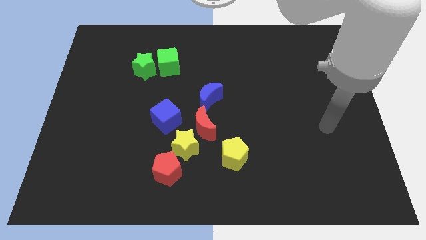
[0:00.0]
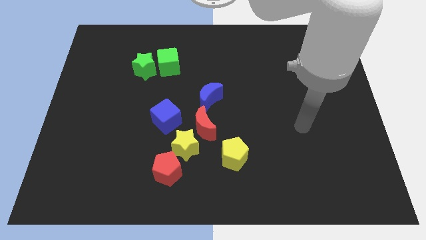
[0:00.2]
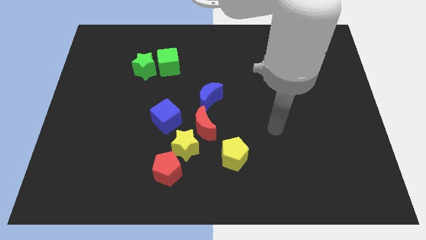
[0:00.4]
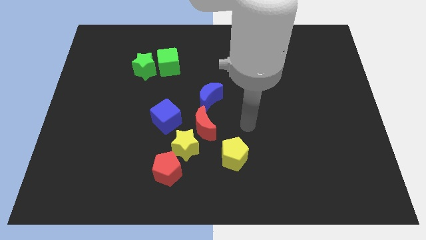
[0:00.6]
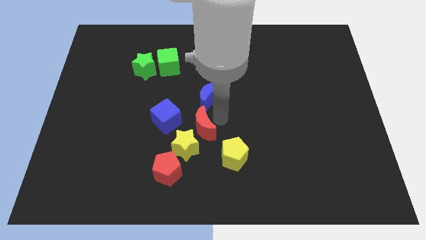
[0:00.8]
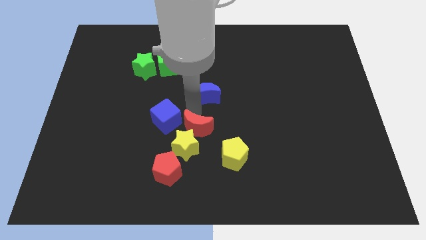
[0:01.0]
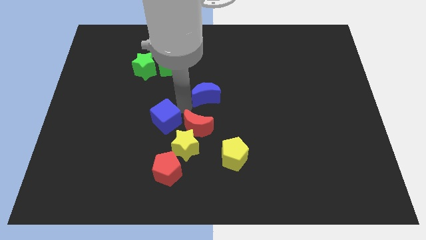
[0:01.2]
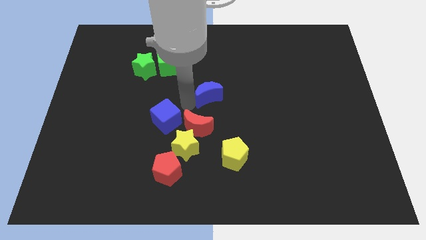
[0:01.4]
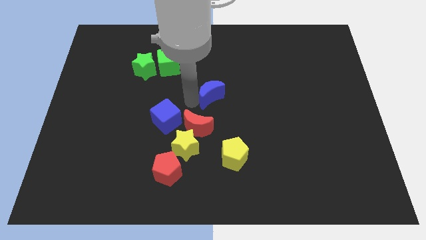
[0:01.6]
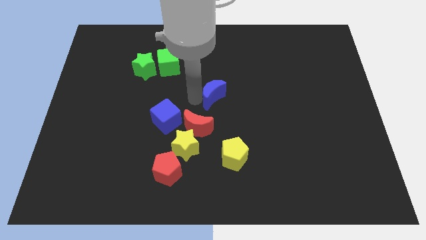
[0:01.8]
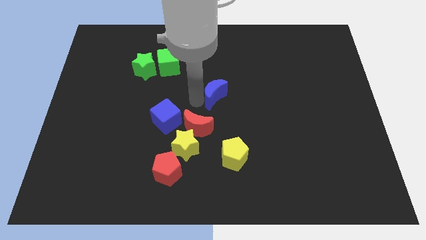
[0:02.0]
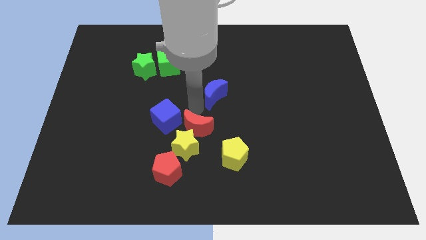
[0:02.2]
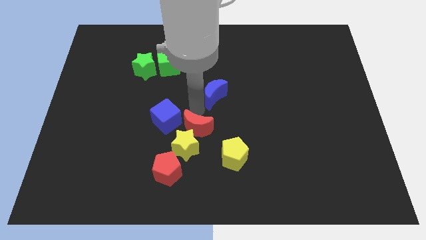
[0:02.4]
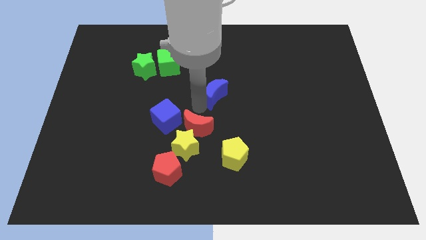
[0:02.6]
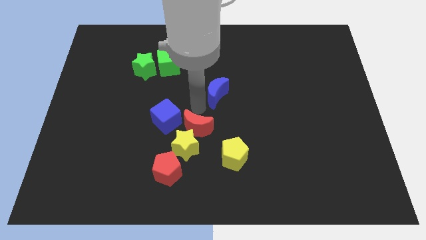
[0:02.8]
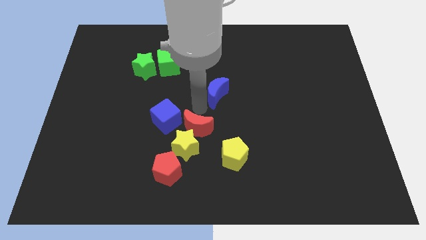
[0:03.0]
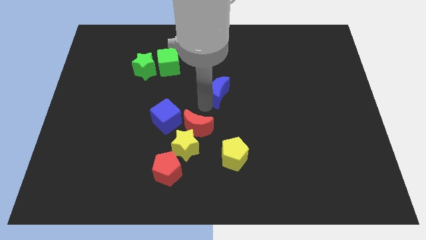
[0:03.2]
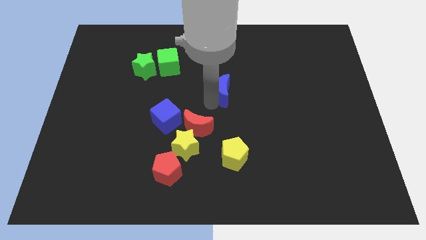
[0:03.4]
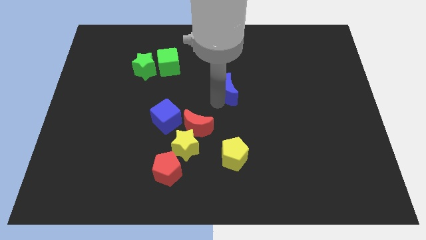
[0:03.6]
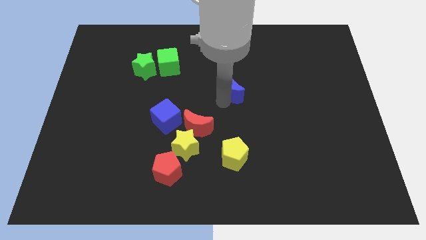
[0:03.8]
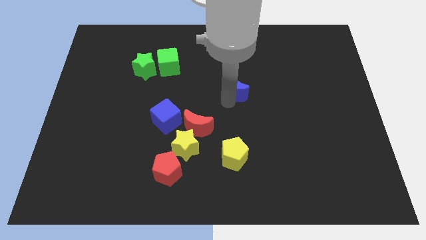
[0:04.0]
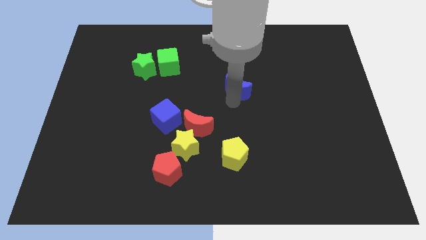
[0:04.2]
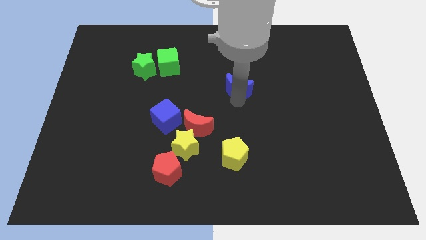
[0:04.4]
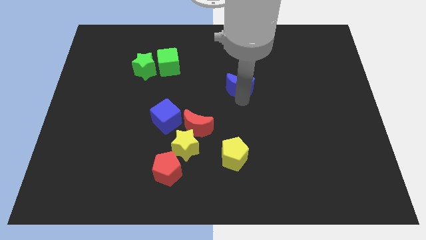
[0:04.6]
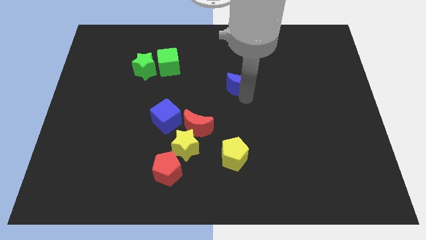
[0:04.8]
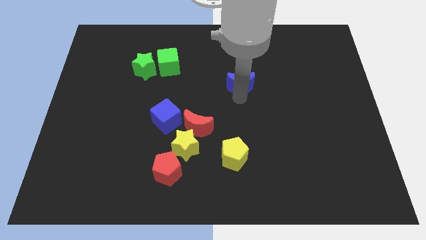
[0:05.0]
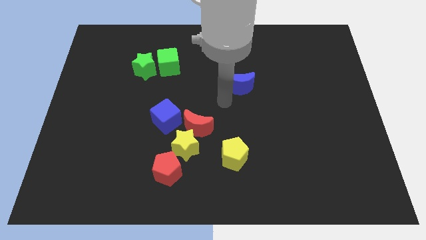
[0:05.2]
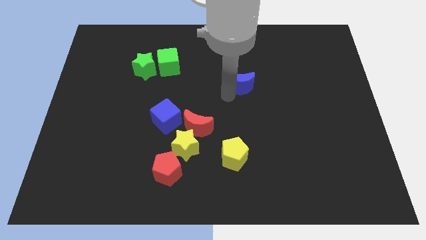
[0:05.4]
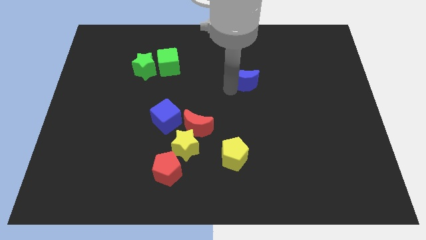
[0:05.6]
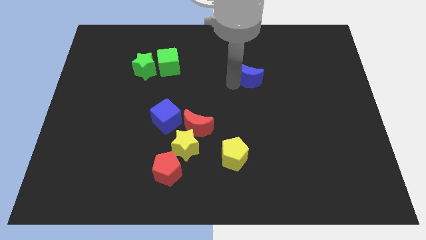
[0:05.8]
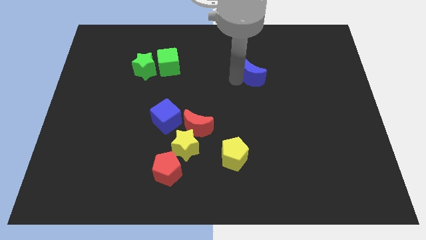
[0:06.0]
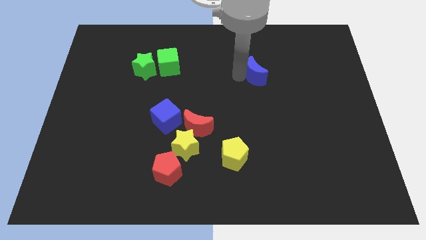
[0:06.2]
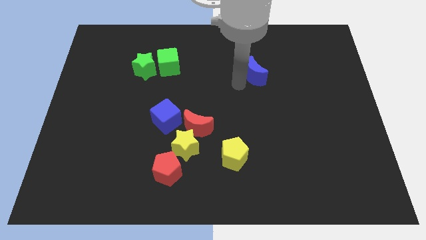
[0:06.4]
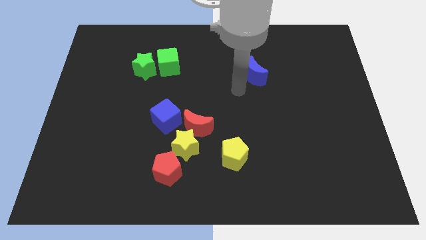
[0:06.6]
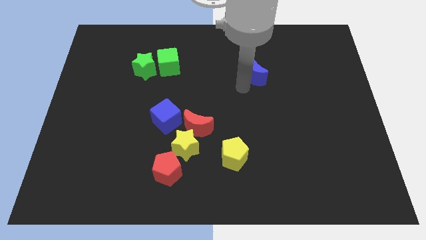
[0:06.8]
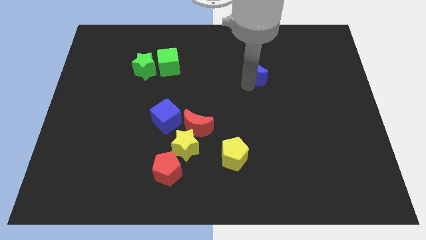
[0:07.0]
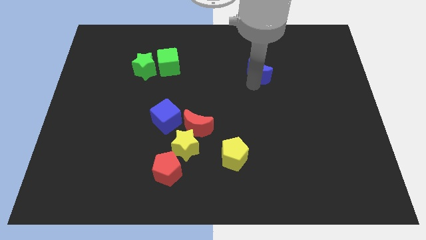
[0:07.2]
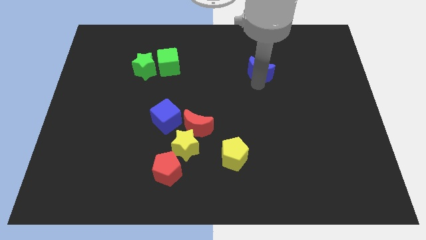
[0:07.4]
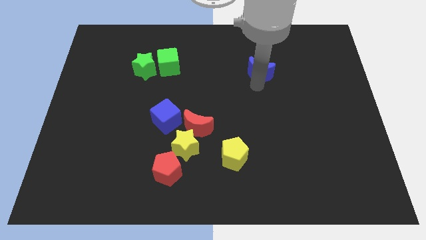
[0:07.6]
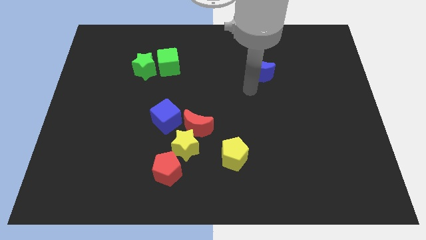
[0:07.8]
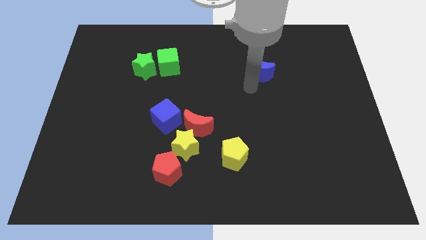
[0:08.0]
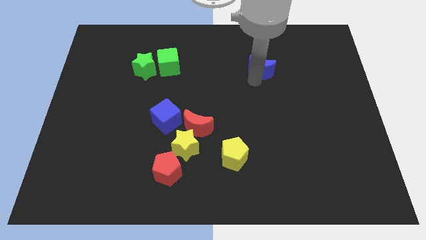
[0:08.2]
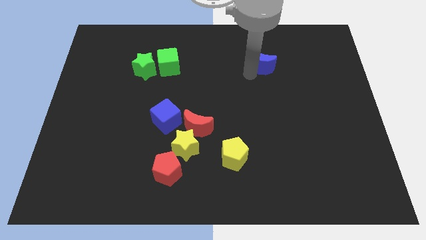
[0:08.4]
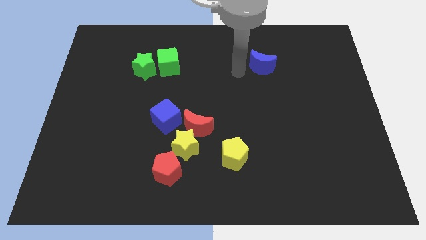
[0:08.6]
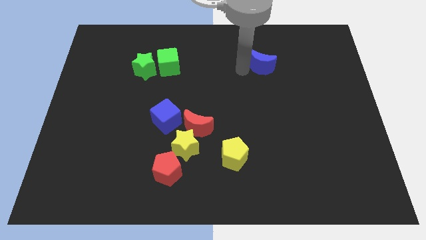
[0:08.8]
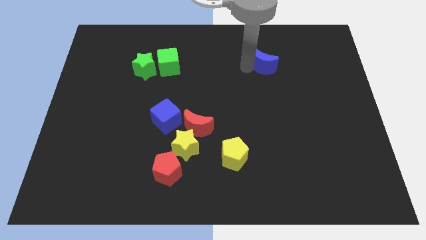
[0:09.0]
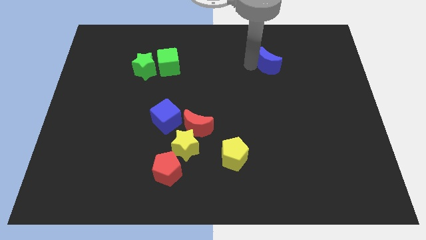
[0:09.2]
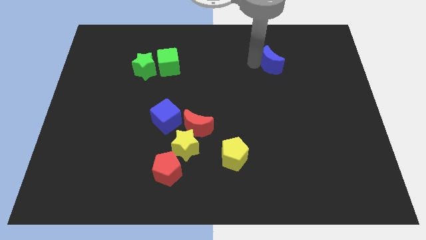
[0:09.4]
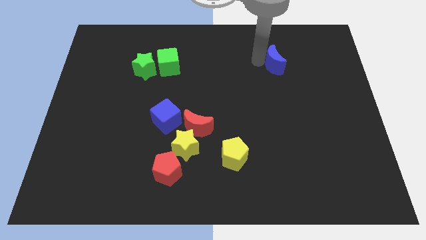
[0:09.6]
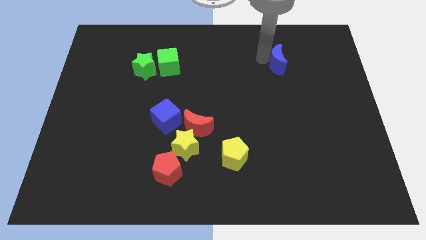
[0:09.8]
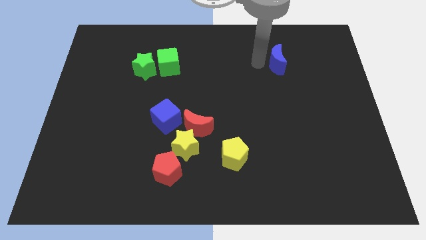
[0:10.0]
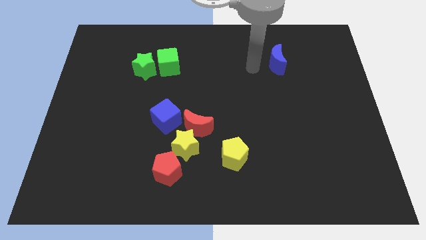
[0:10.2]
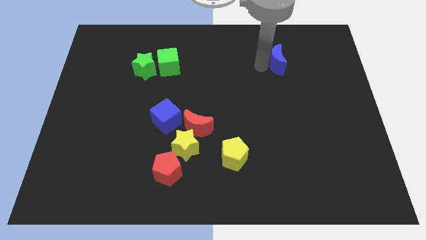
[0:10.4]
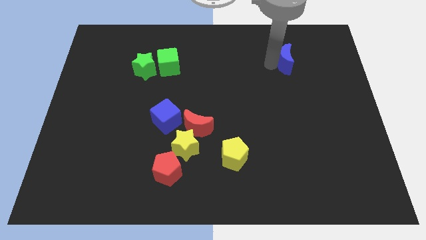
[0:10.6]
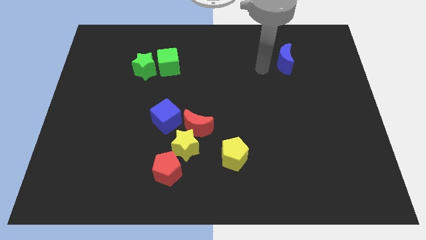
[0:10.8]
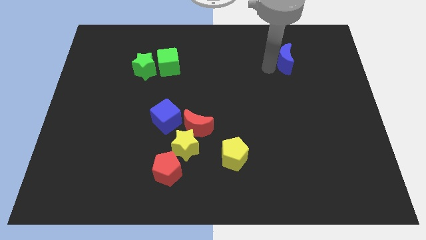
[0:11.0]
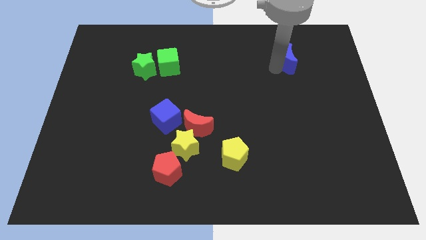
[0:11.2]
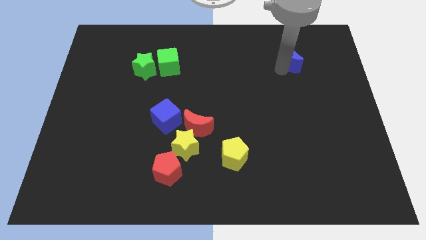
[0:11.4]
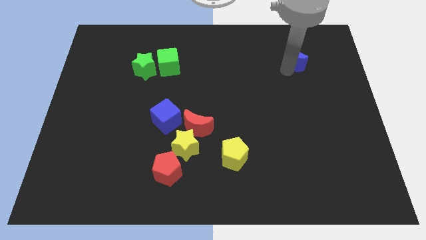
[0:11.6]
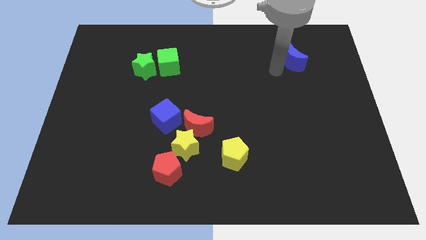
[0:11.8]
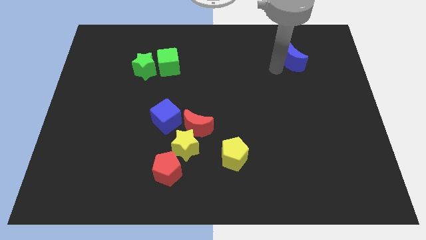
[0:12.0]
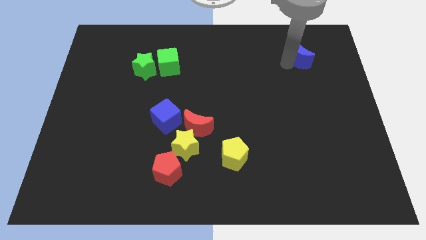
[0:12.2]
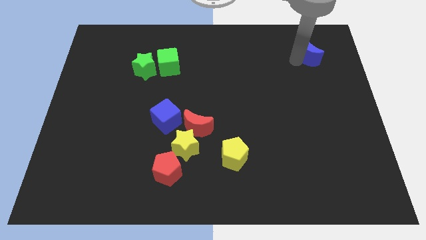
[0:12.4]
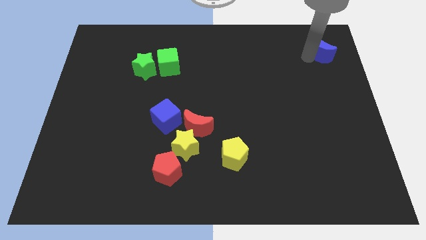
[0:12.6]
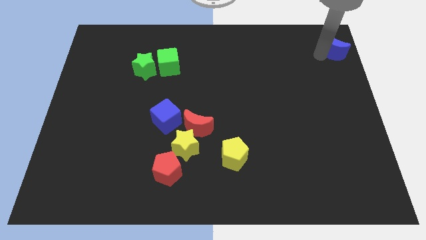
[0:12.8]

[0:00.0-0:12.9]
slide the blue moon to the top right of the board
